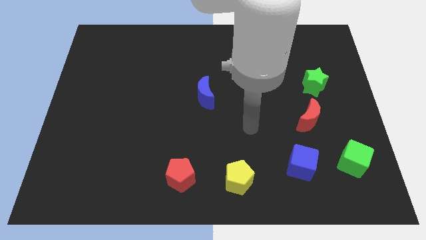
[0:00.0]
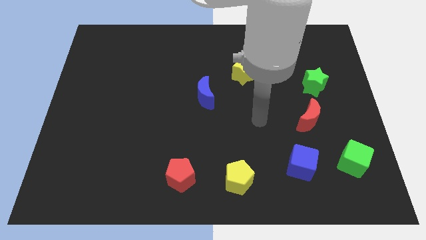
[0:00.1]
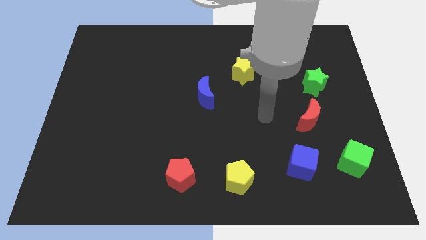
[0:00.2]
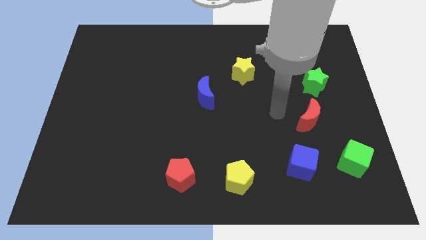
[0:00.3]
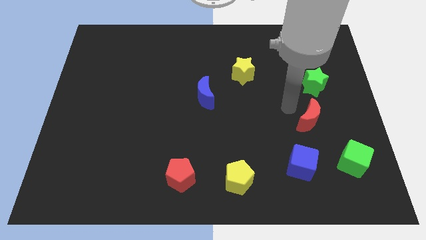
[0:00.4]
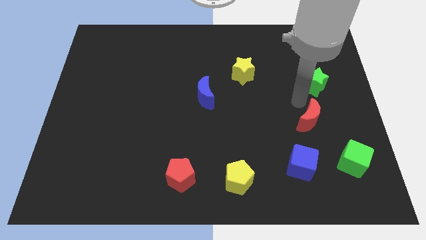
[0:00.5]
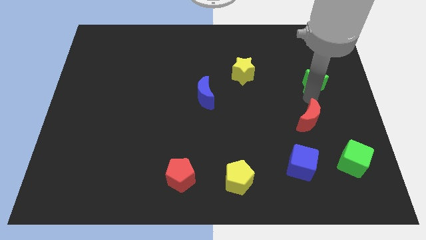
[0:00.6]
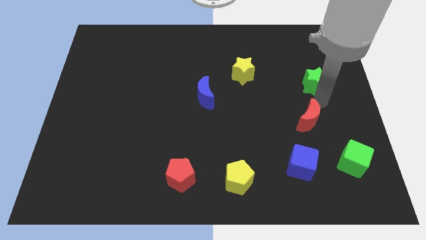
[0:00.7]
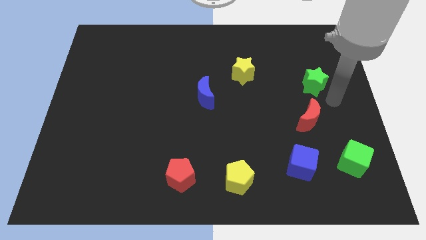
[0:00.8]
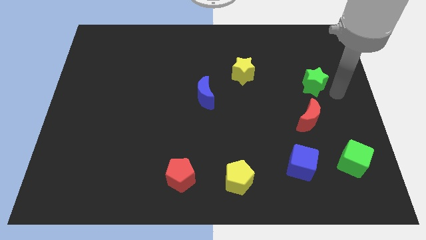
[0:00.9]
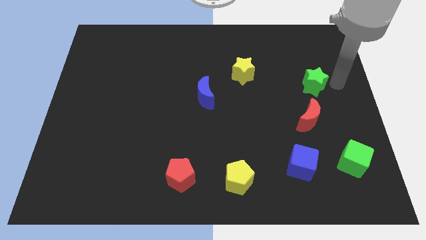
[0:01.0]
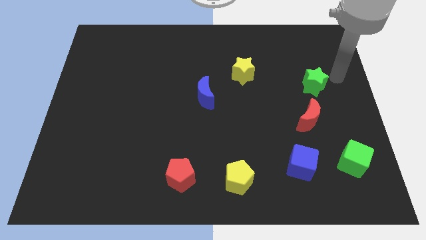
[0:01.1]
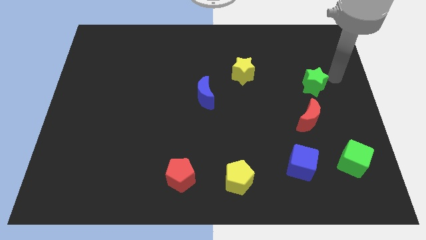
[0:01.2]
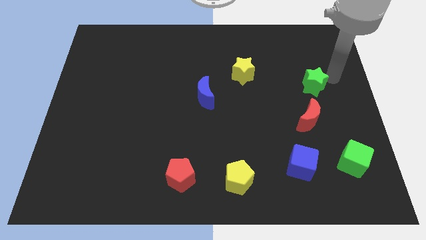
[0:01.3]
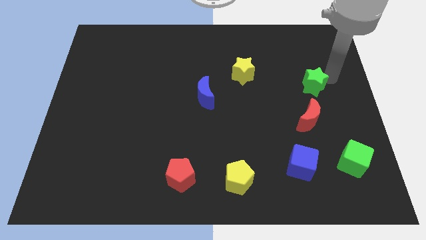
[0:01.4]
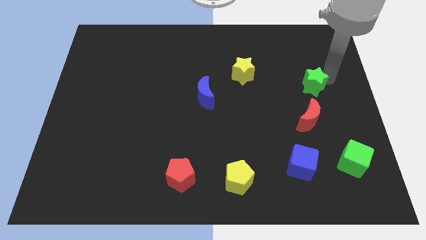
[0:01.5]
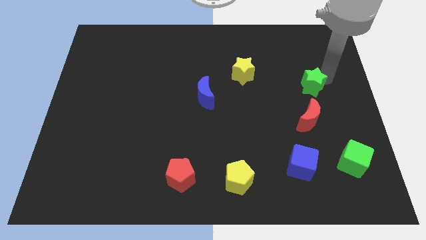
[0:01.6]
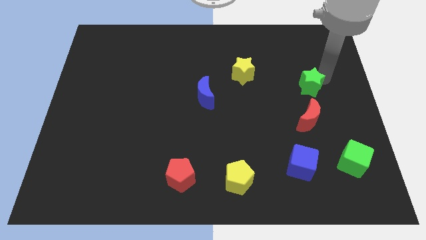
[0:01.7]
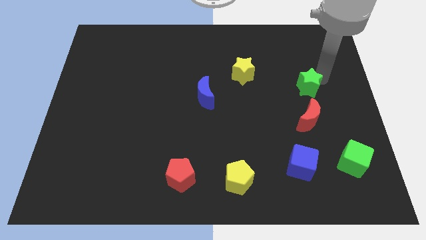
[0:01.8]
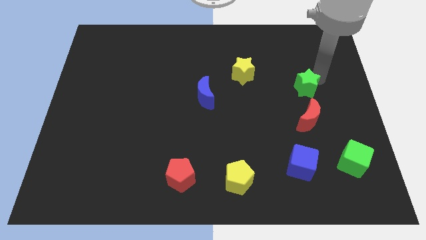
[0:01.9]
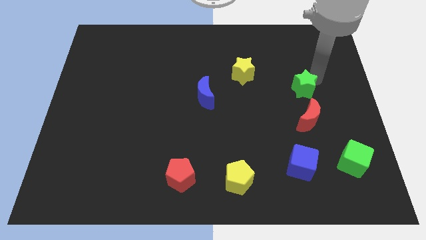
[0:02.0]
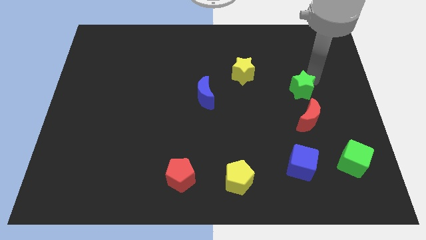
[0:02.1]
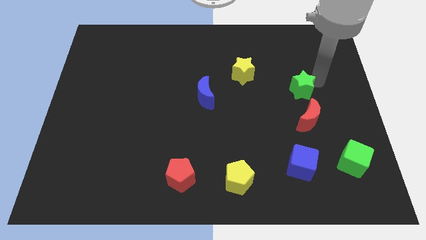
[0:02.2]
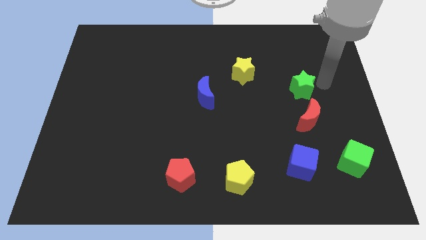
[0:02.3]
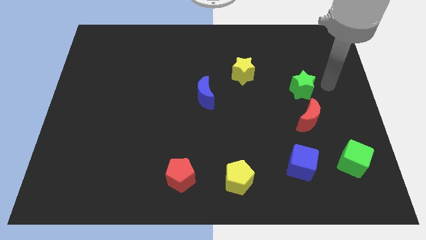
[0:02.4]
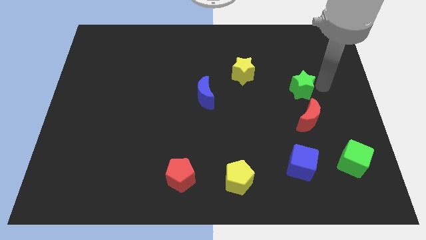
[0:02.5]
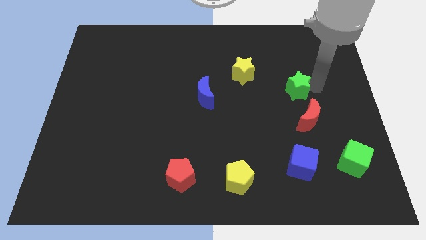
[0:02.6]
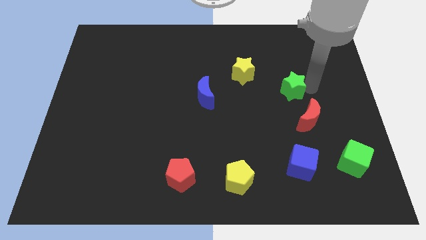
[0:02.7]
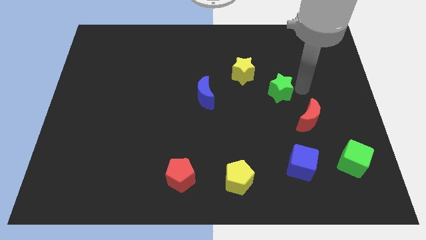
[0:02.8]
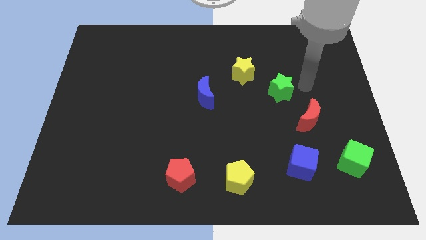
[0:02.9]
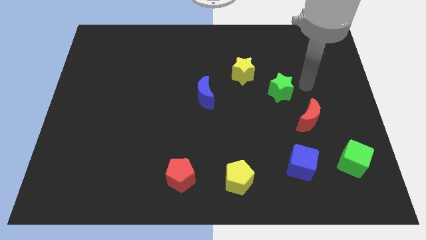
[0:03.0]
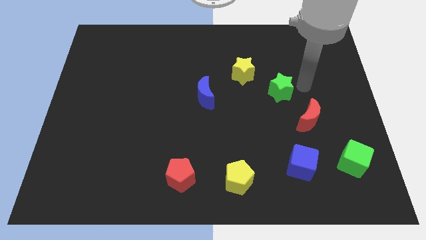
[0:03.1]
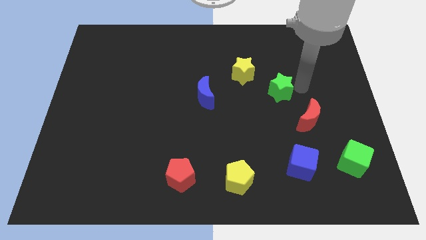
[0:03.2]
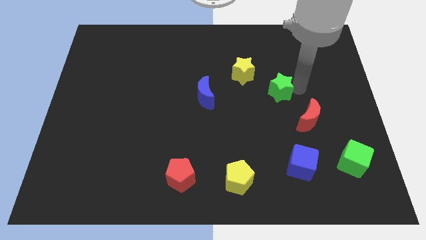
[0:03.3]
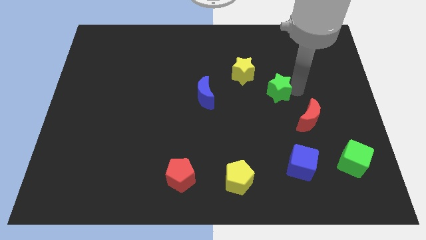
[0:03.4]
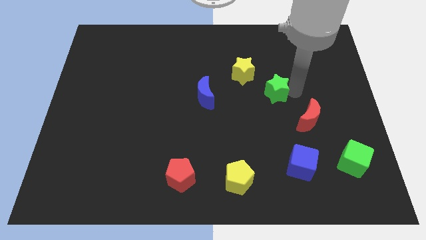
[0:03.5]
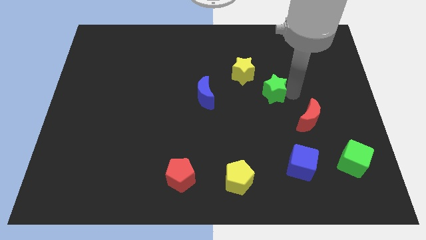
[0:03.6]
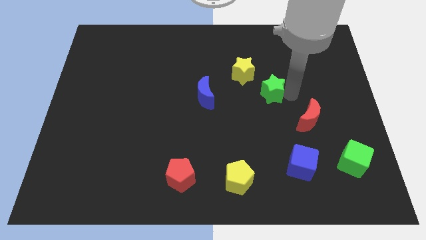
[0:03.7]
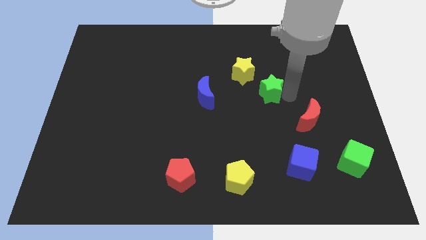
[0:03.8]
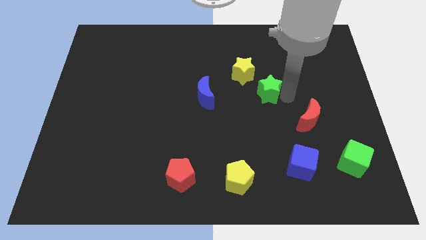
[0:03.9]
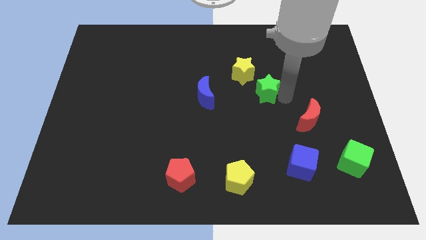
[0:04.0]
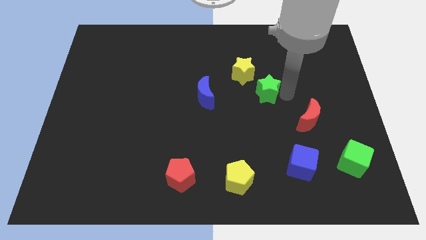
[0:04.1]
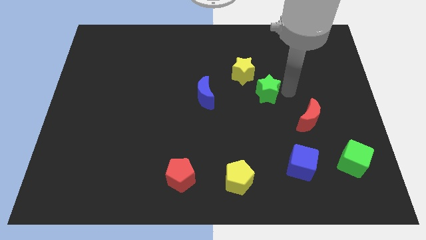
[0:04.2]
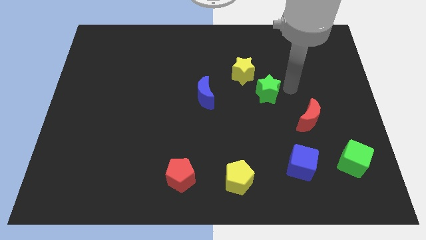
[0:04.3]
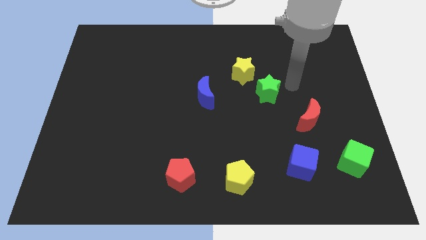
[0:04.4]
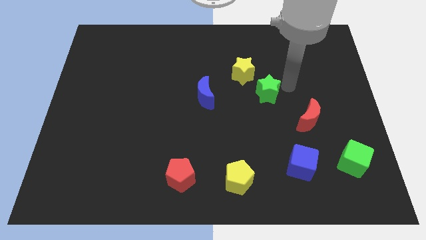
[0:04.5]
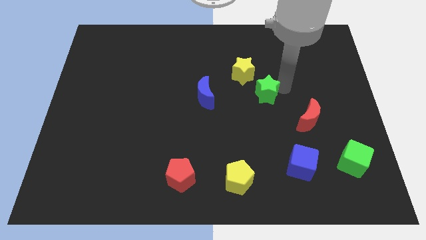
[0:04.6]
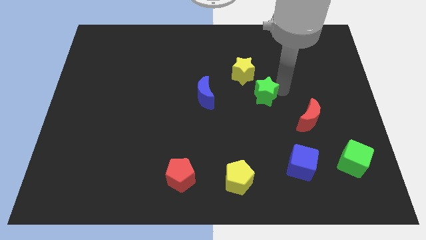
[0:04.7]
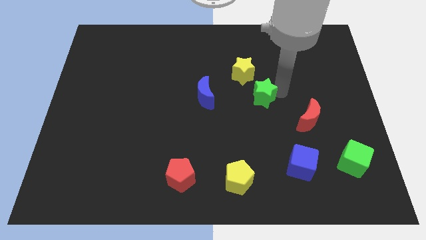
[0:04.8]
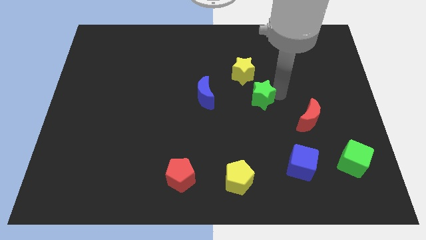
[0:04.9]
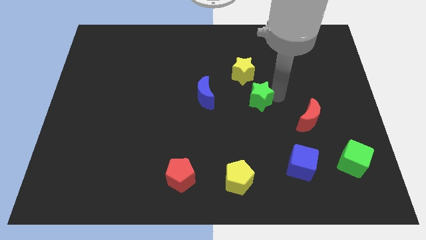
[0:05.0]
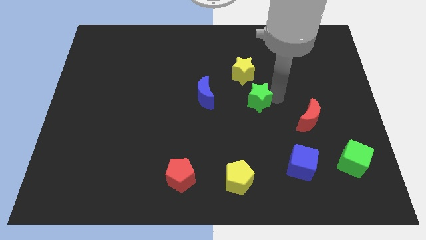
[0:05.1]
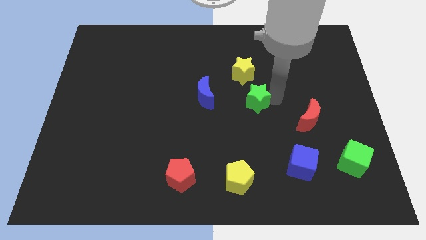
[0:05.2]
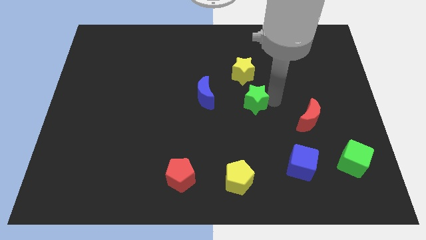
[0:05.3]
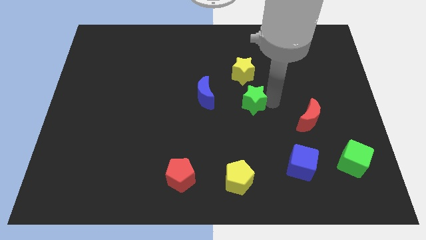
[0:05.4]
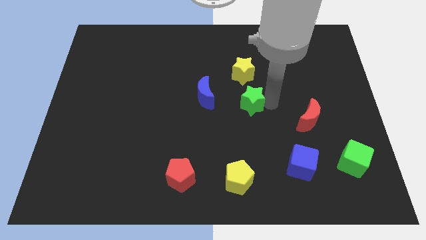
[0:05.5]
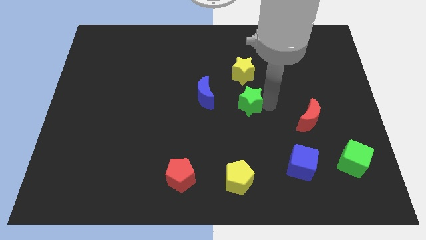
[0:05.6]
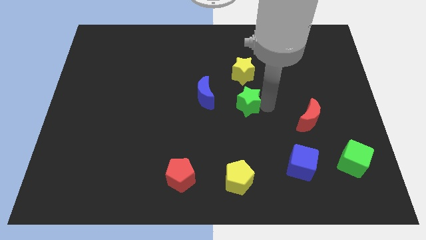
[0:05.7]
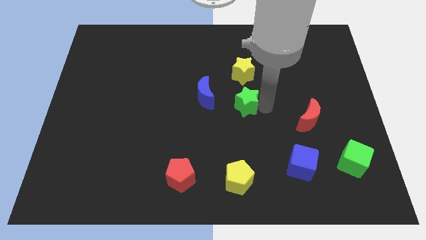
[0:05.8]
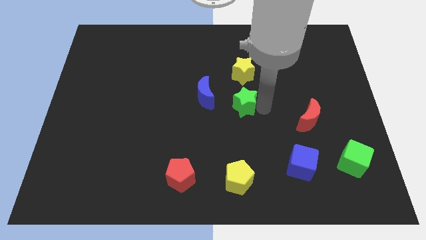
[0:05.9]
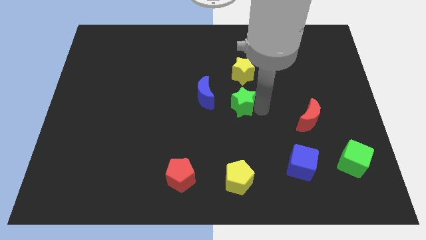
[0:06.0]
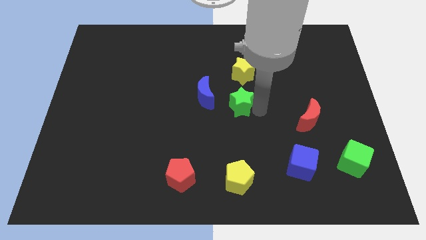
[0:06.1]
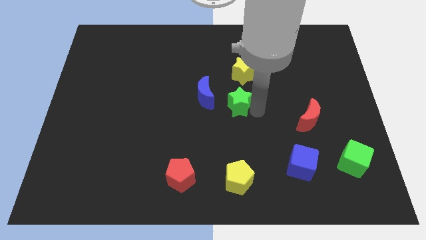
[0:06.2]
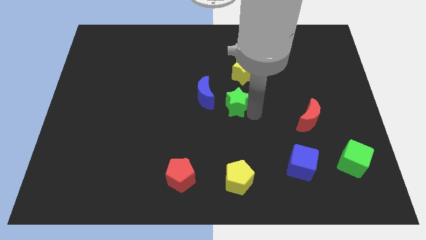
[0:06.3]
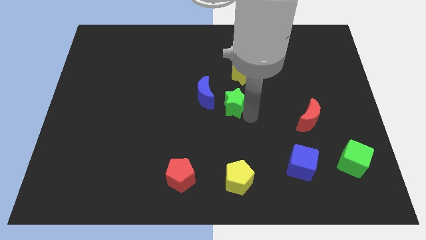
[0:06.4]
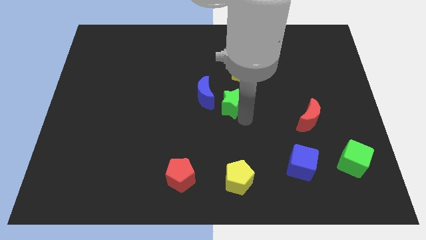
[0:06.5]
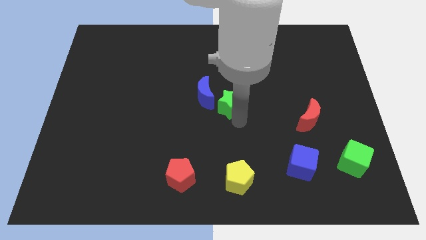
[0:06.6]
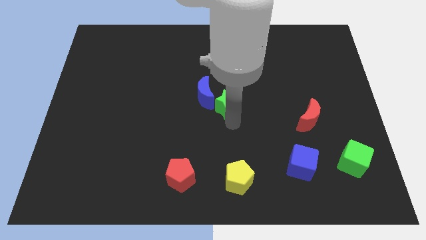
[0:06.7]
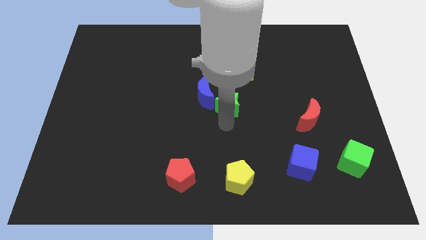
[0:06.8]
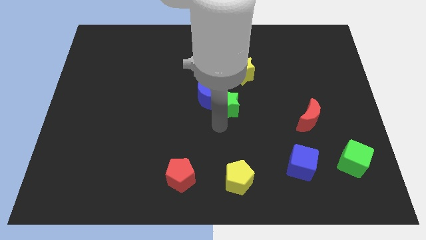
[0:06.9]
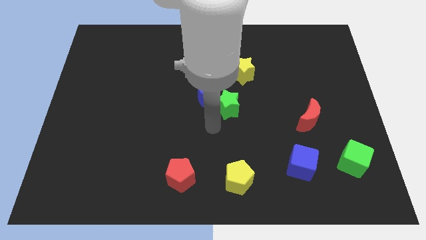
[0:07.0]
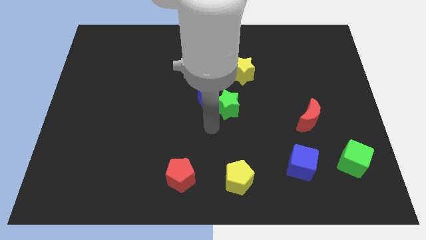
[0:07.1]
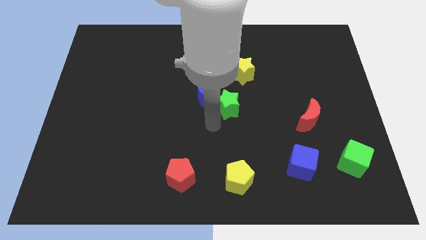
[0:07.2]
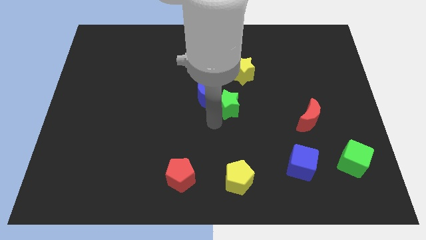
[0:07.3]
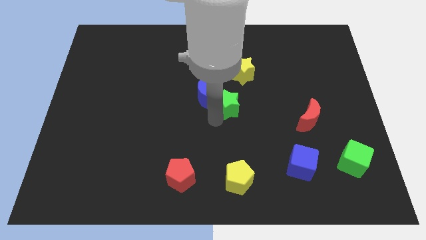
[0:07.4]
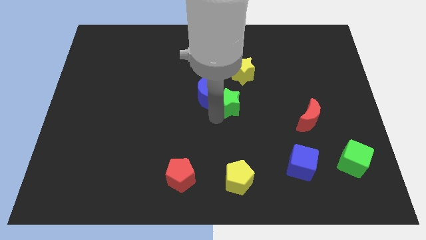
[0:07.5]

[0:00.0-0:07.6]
push the green star left

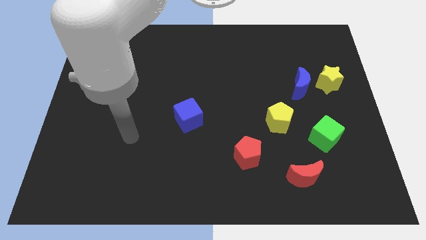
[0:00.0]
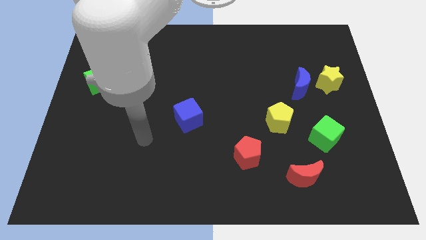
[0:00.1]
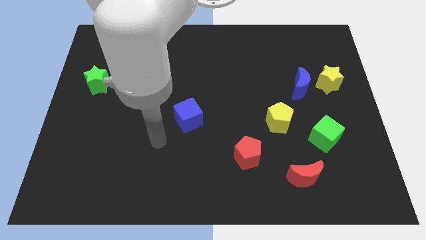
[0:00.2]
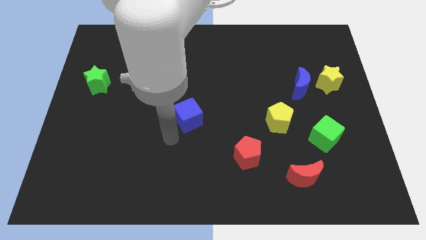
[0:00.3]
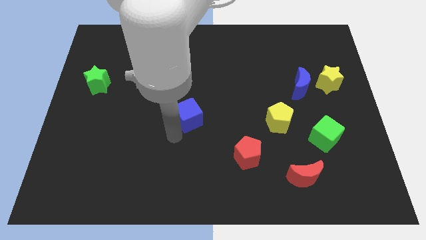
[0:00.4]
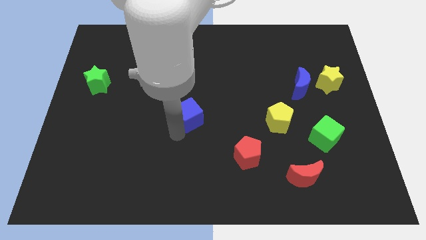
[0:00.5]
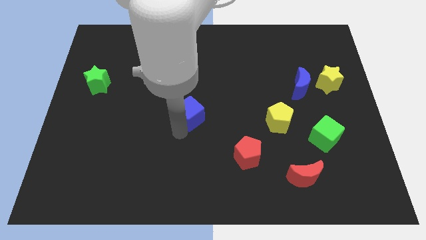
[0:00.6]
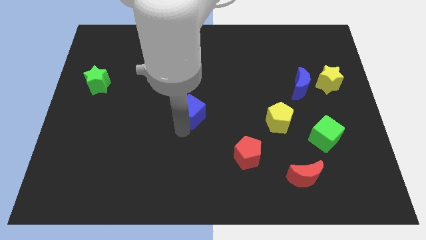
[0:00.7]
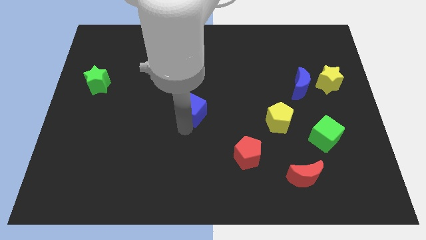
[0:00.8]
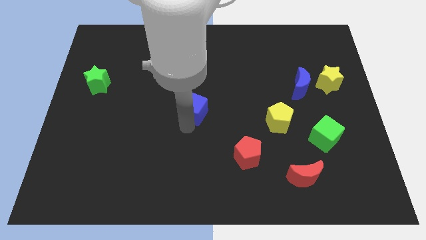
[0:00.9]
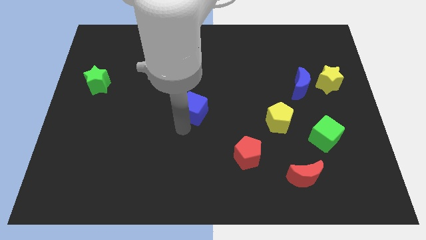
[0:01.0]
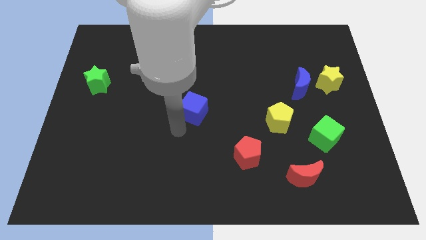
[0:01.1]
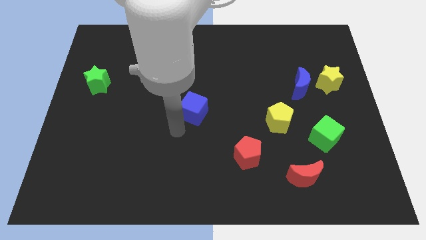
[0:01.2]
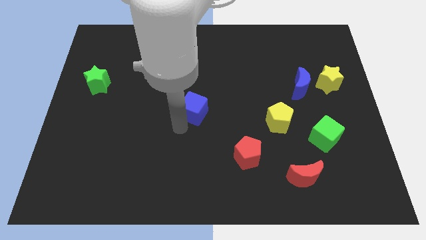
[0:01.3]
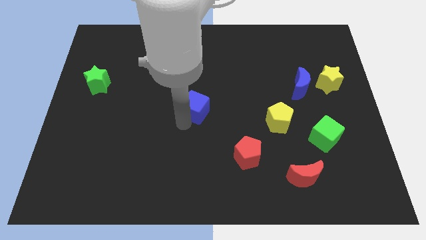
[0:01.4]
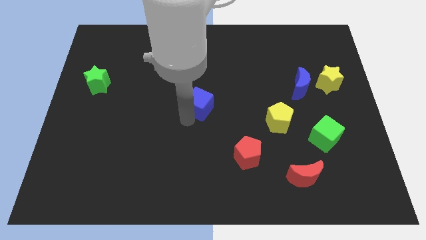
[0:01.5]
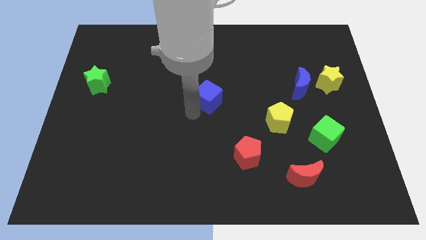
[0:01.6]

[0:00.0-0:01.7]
slightly push the blue cube up and right
